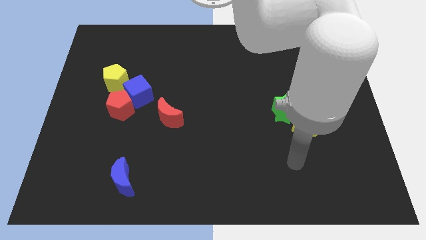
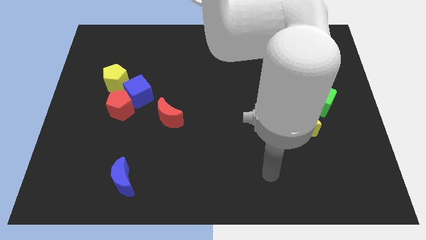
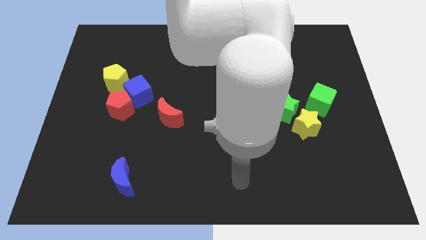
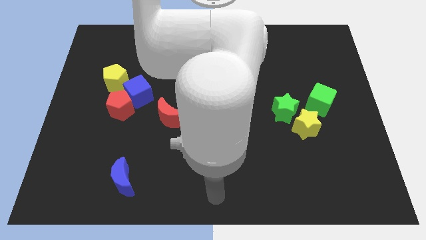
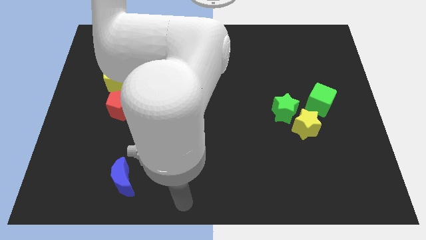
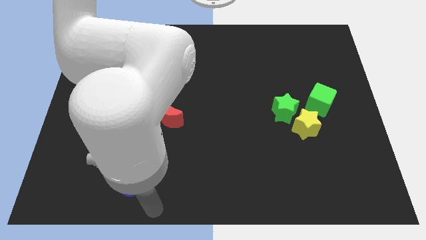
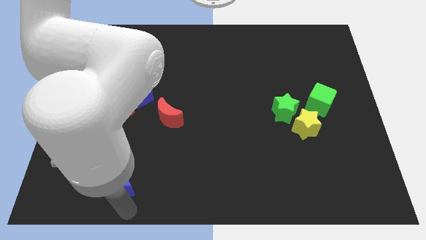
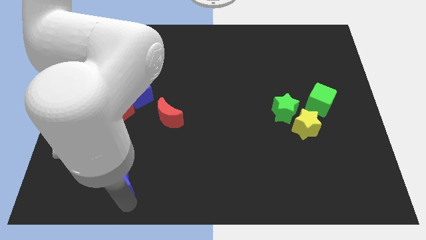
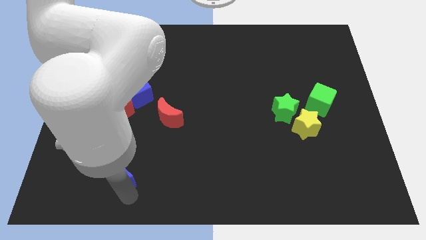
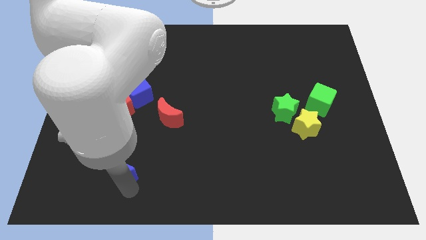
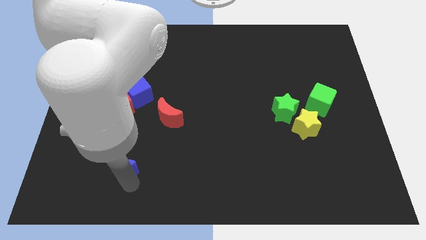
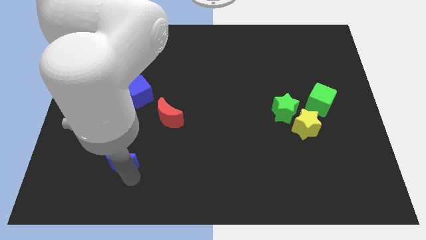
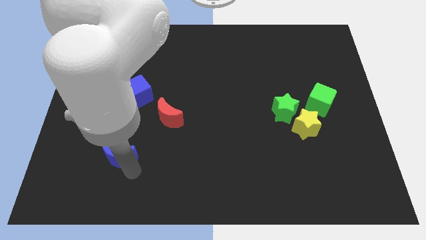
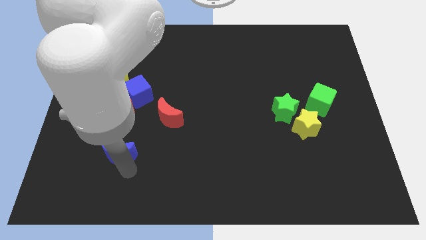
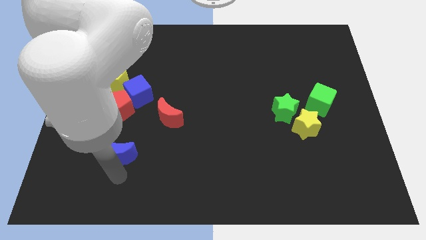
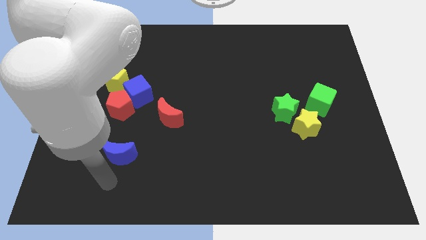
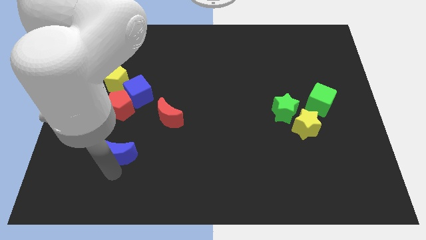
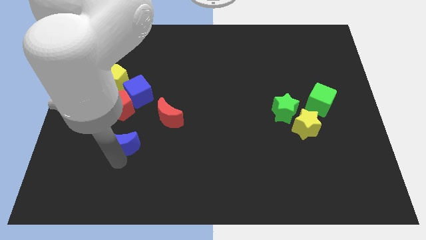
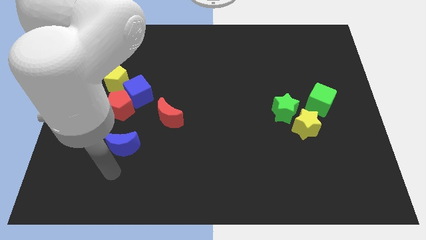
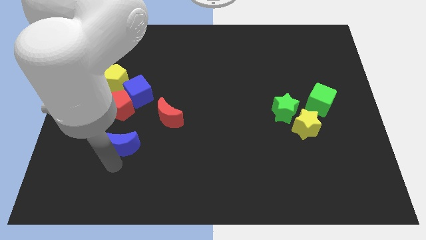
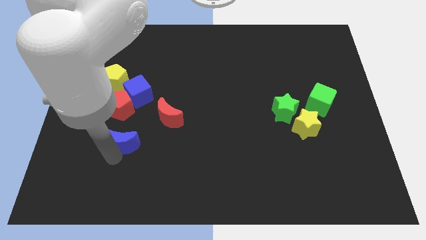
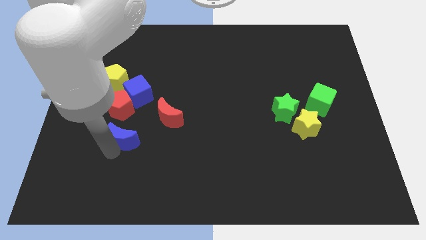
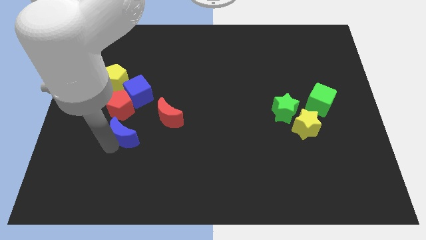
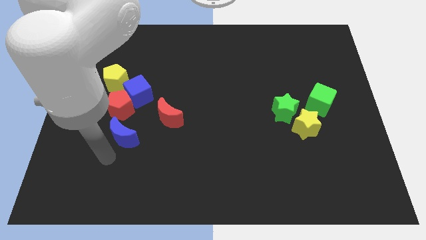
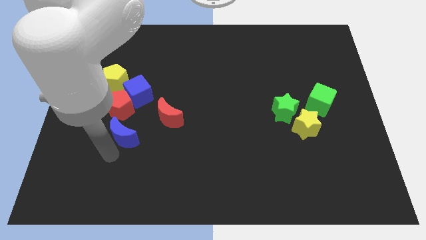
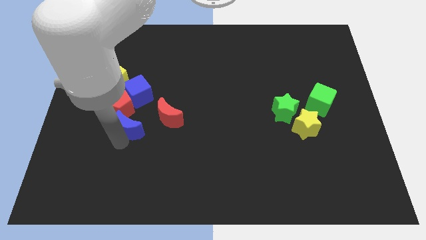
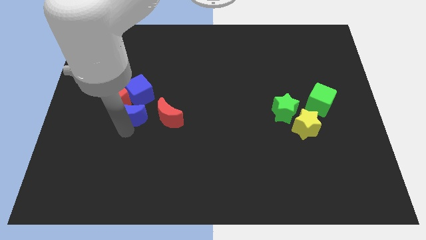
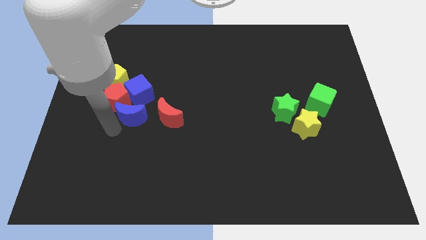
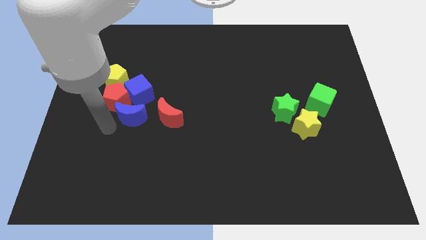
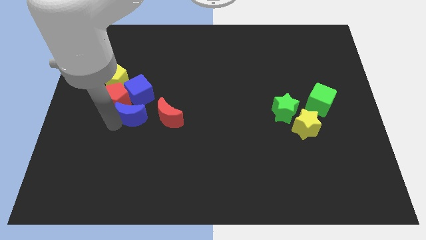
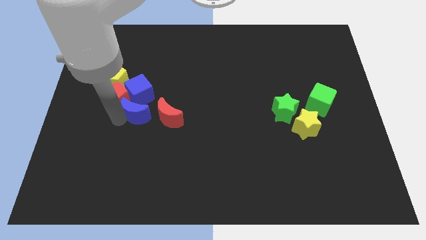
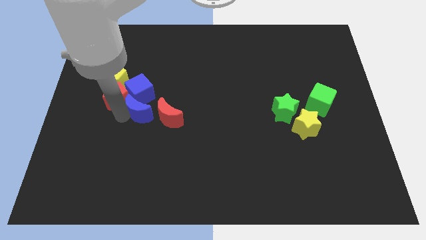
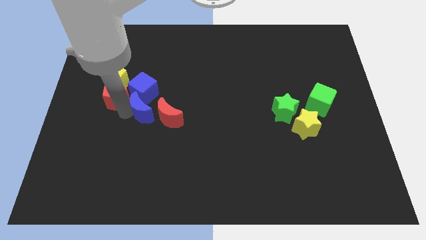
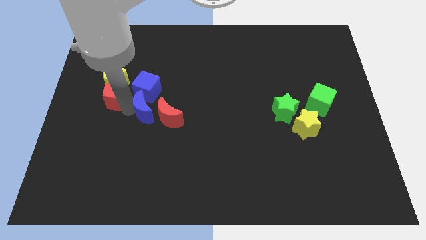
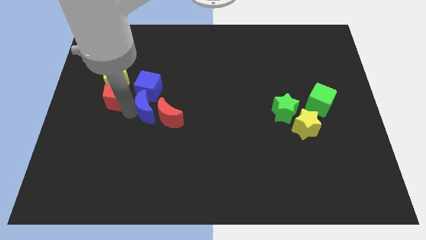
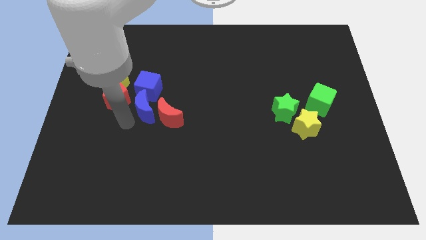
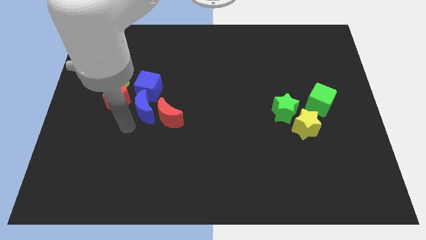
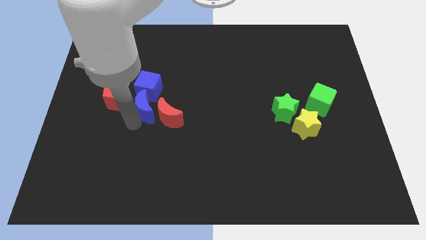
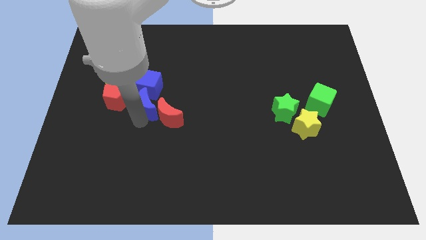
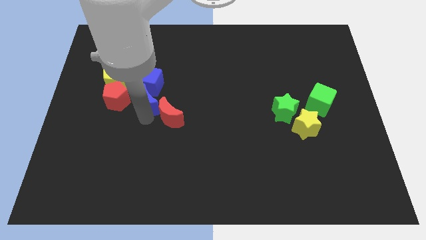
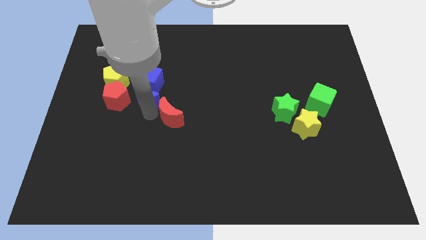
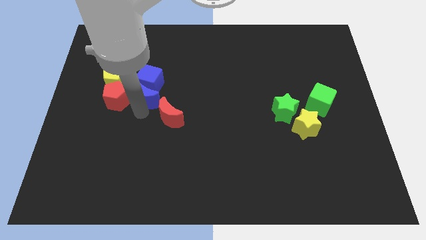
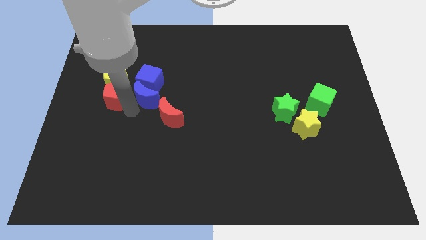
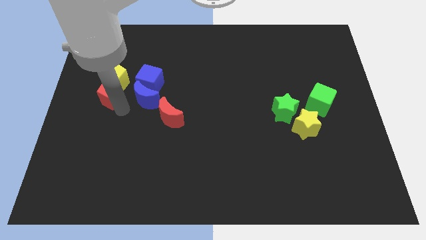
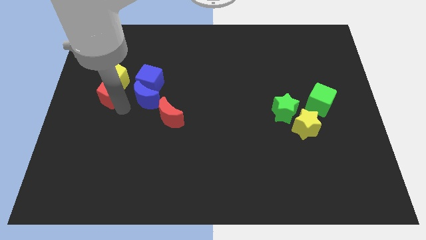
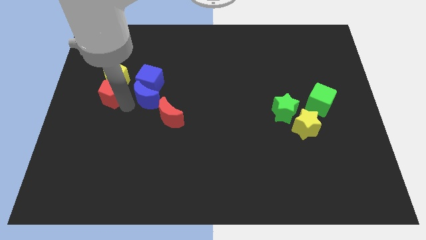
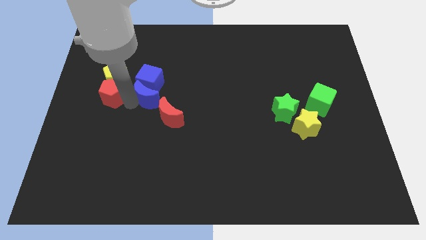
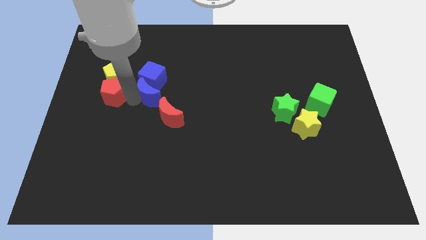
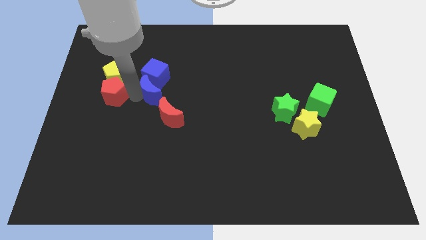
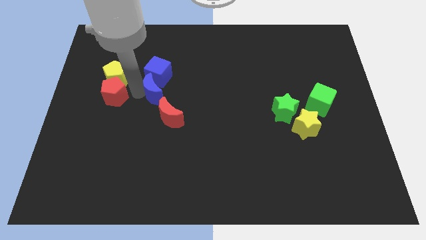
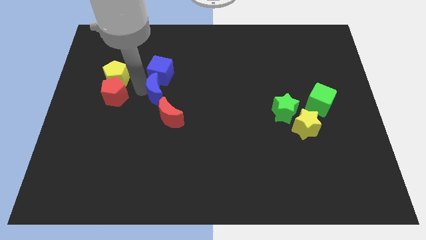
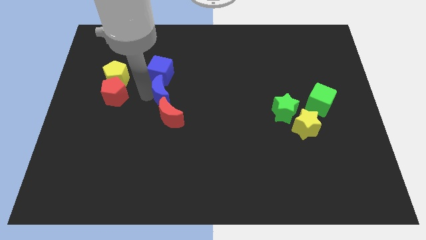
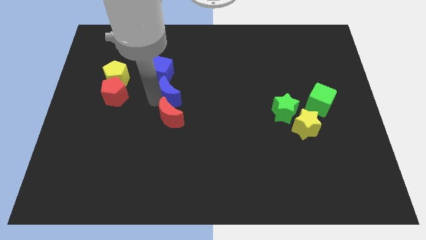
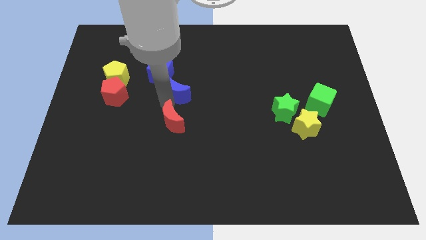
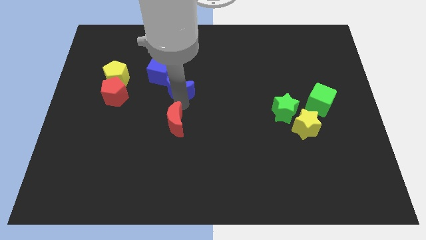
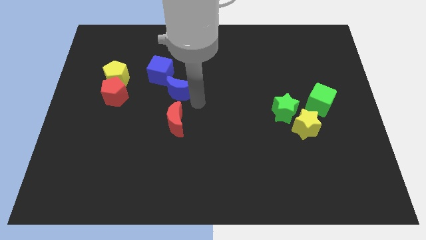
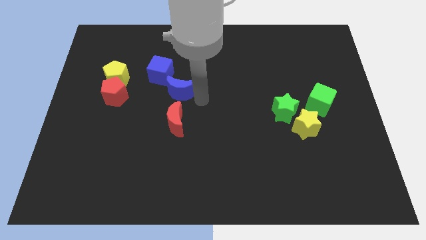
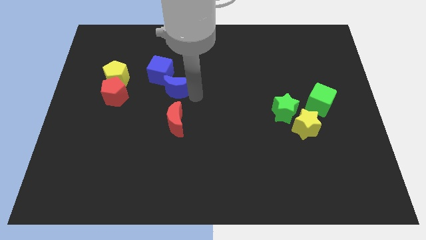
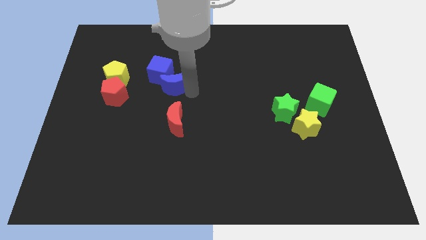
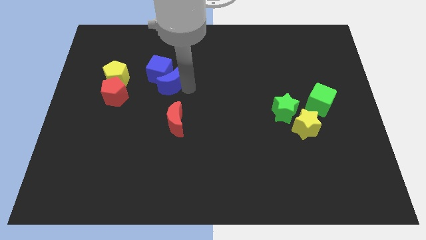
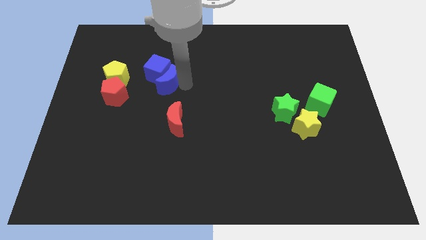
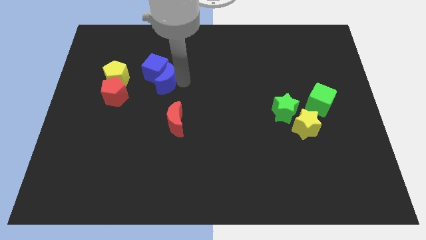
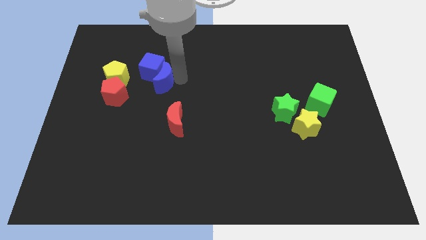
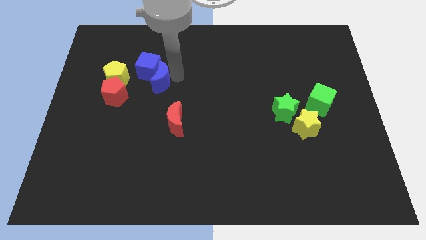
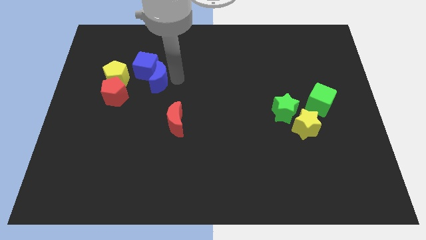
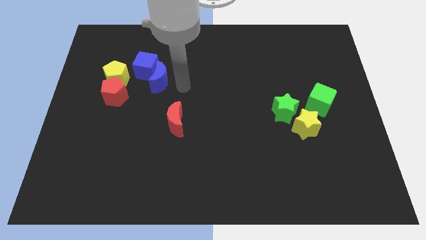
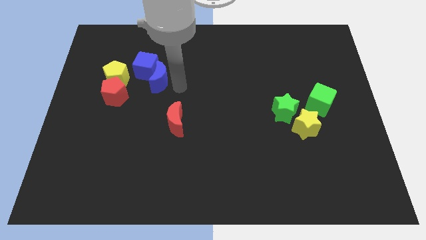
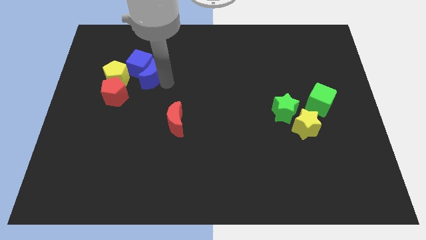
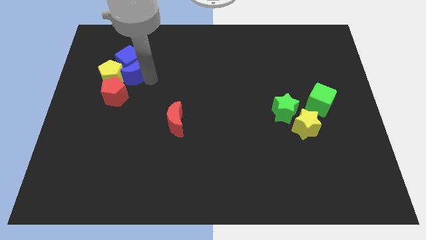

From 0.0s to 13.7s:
put the blue moon to the top side of the red pentagon

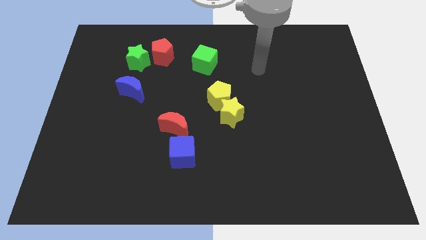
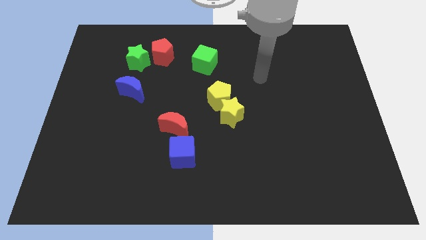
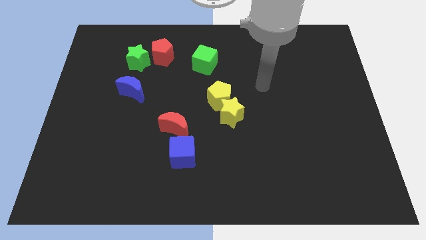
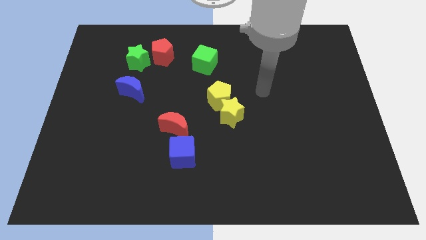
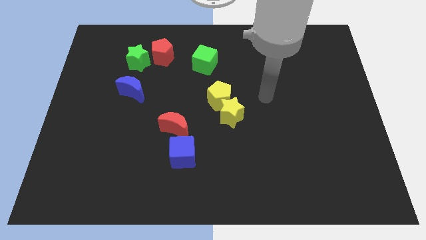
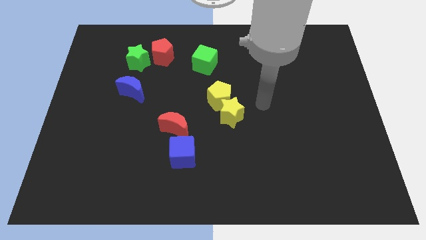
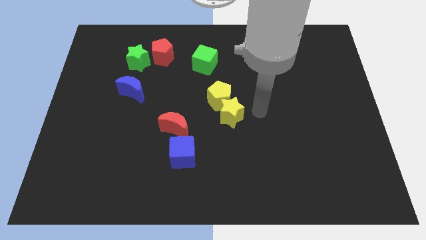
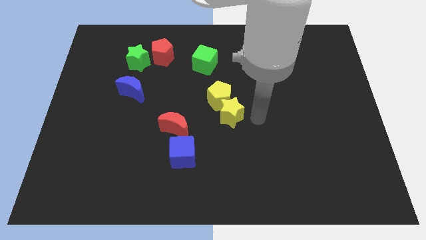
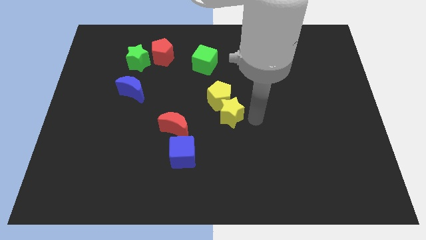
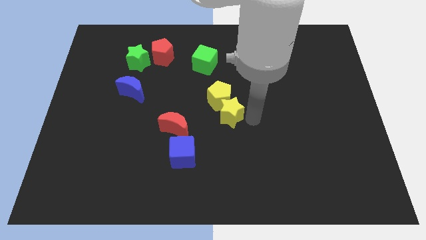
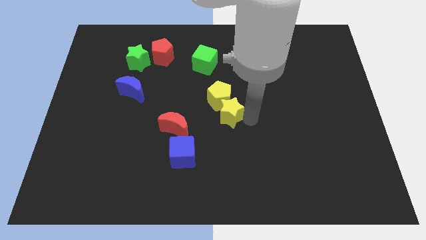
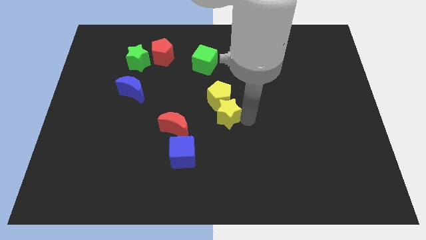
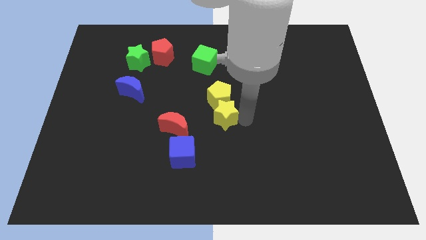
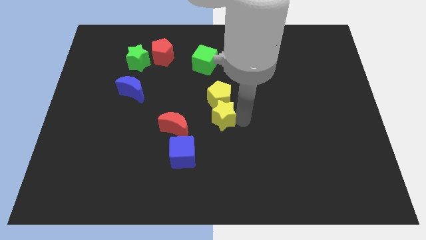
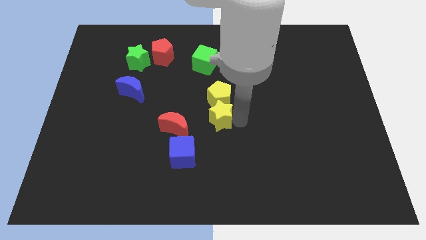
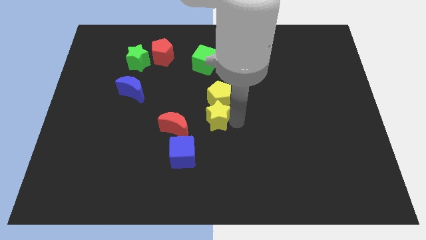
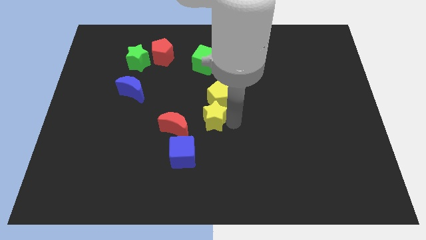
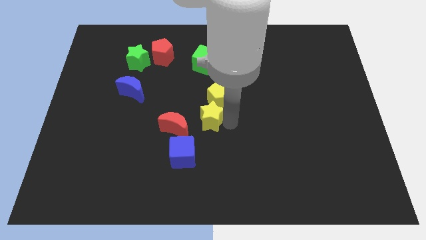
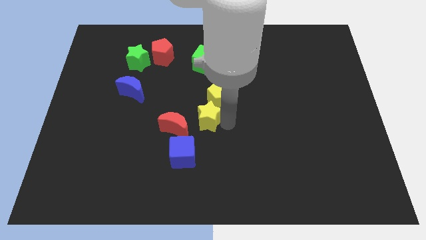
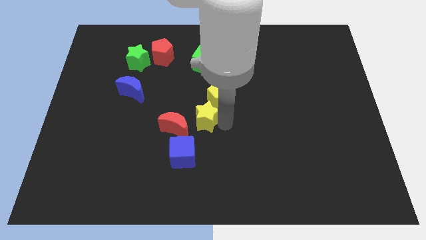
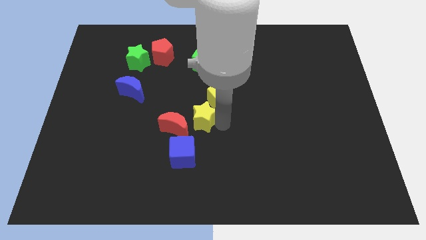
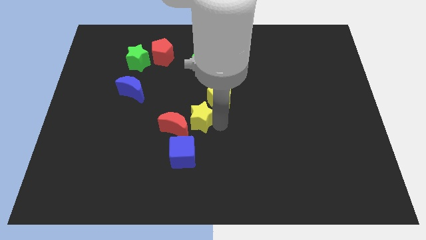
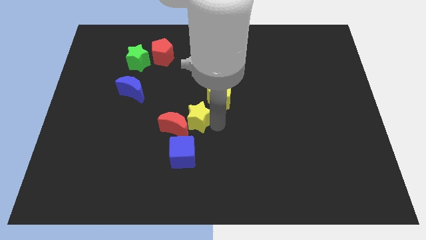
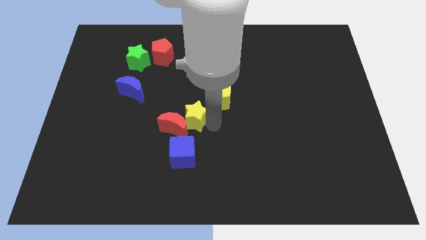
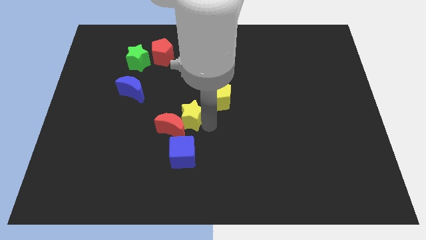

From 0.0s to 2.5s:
slide the yellow star to the top of the red moon
